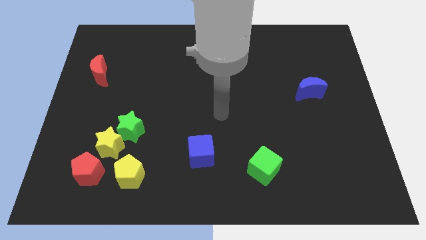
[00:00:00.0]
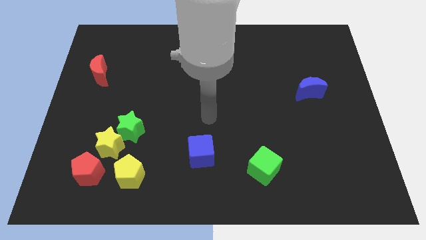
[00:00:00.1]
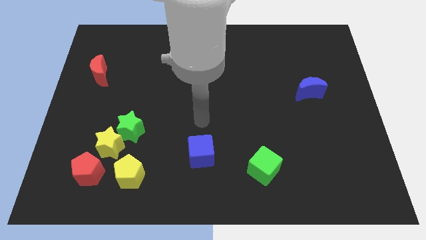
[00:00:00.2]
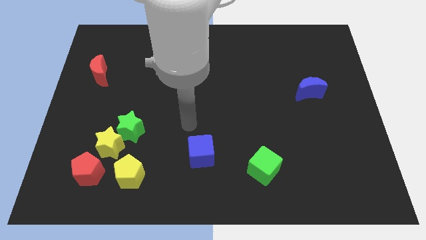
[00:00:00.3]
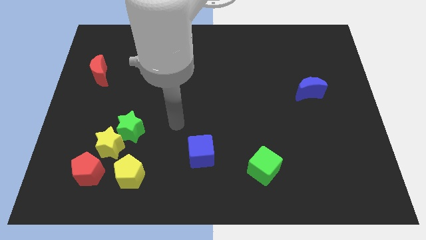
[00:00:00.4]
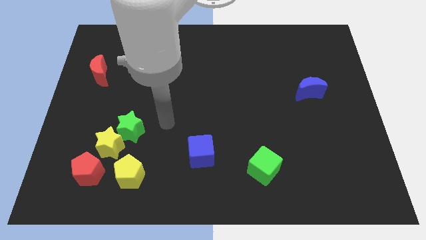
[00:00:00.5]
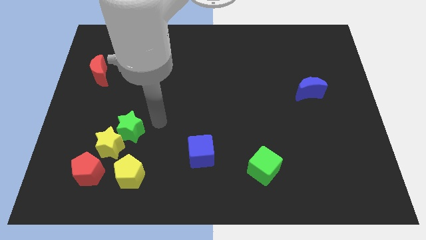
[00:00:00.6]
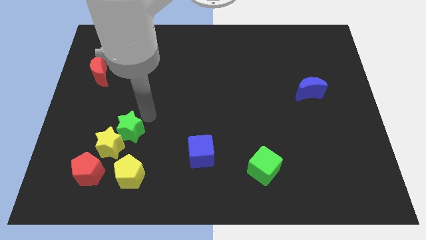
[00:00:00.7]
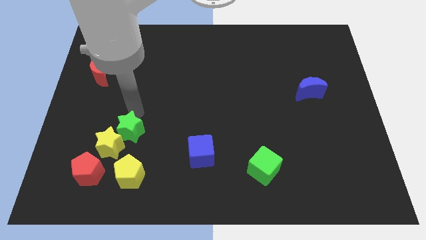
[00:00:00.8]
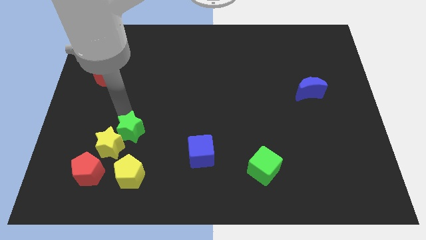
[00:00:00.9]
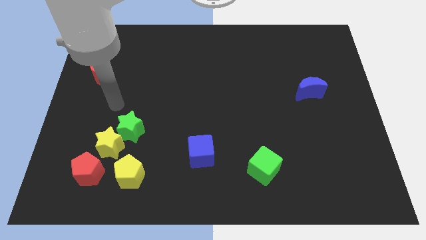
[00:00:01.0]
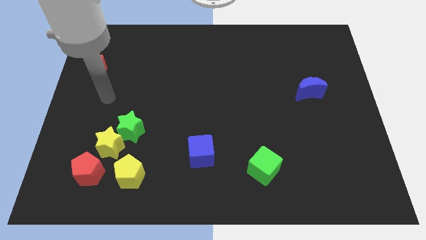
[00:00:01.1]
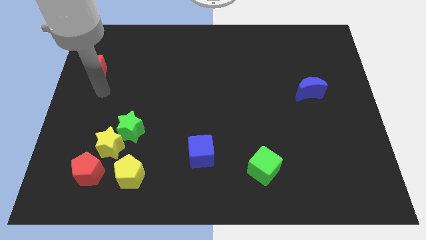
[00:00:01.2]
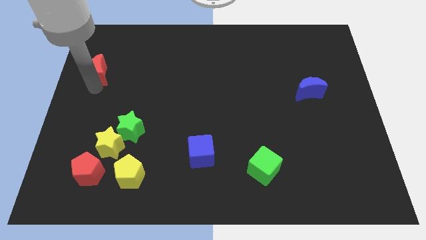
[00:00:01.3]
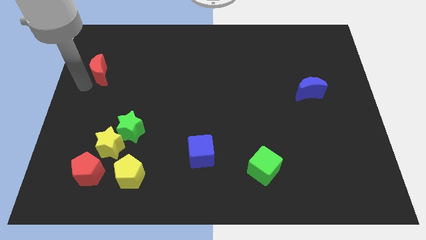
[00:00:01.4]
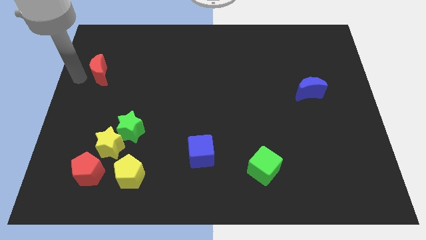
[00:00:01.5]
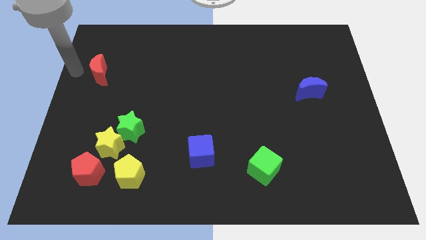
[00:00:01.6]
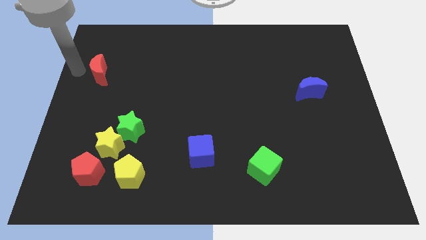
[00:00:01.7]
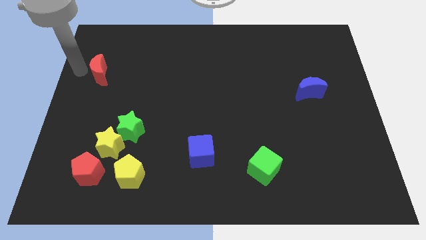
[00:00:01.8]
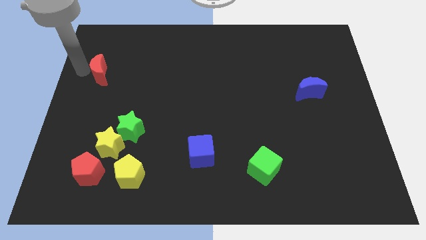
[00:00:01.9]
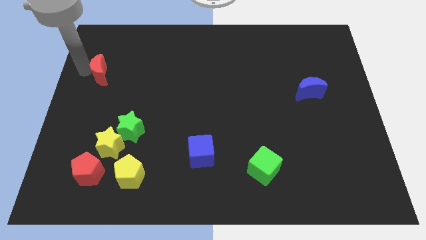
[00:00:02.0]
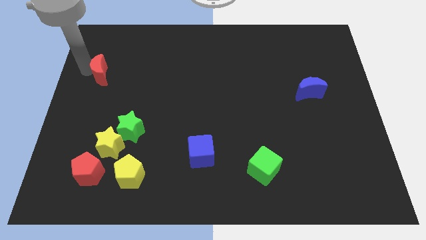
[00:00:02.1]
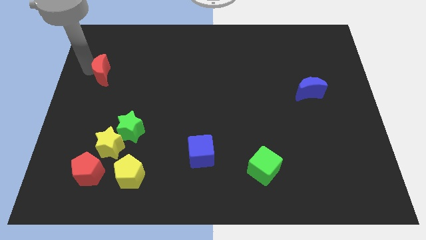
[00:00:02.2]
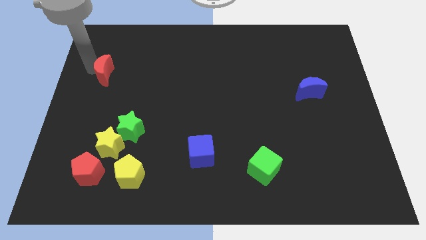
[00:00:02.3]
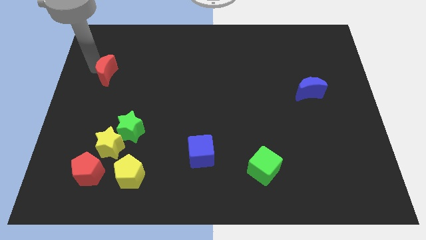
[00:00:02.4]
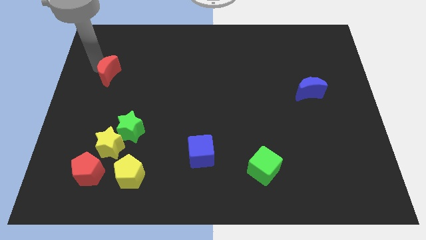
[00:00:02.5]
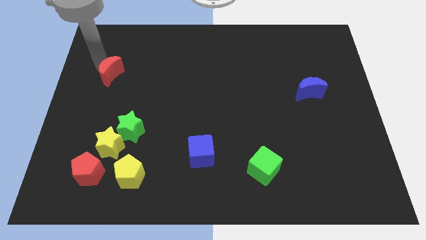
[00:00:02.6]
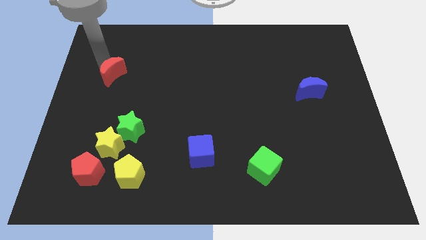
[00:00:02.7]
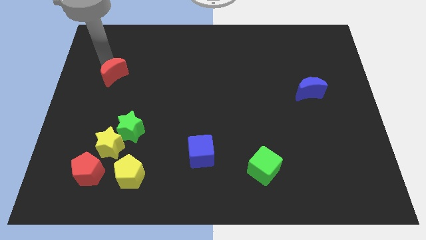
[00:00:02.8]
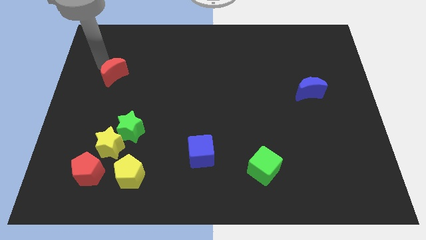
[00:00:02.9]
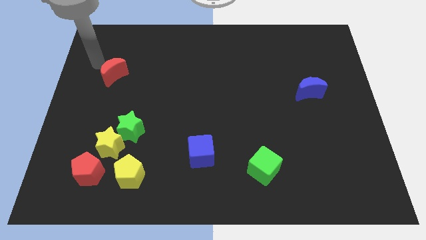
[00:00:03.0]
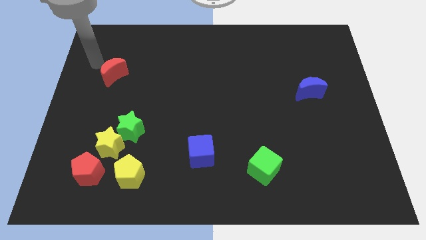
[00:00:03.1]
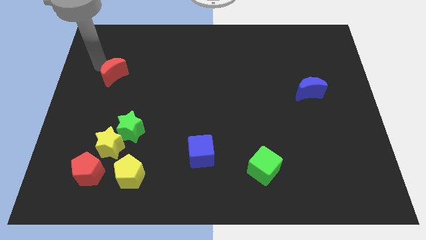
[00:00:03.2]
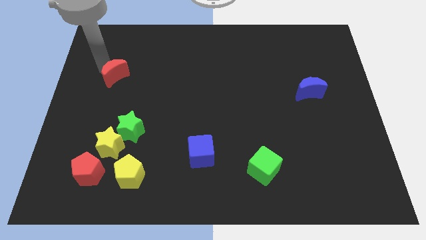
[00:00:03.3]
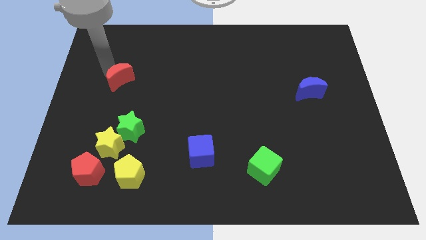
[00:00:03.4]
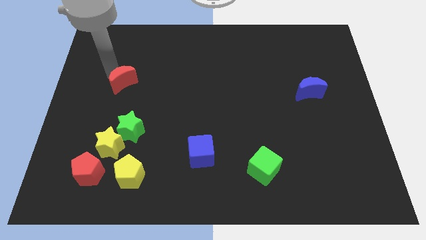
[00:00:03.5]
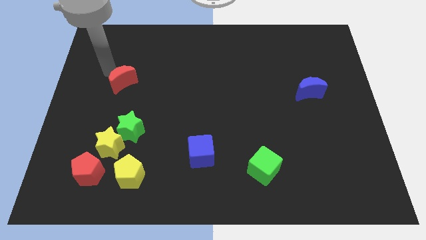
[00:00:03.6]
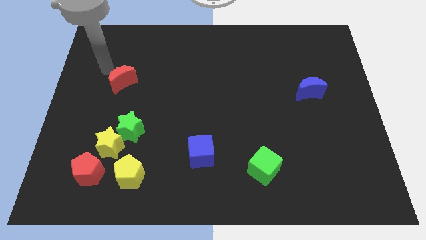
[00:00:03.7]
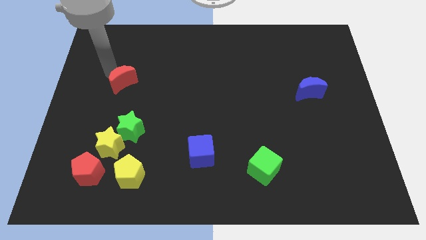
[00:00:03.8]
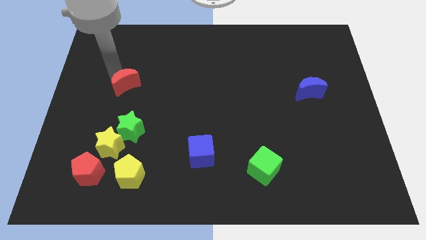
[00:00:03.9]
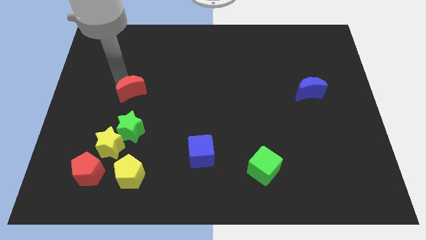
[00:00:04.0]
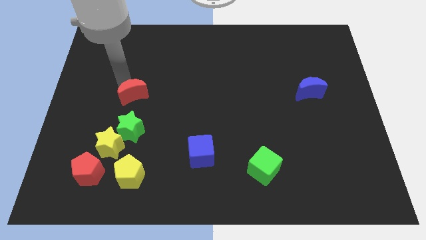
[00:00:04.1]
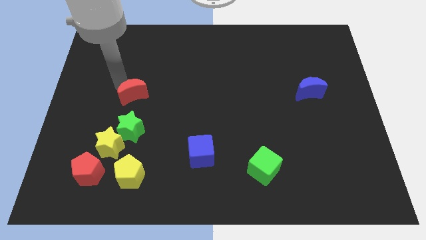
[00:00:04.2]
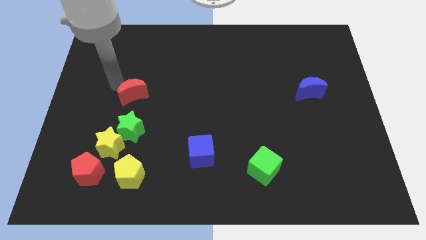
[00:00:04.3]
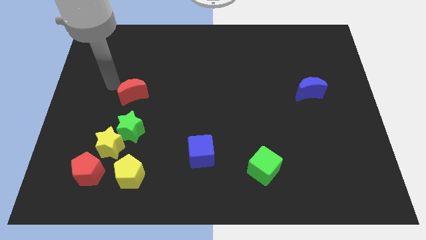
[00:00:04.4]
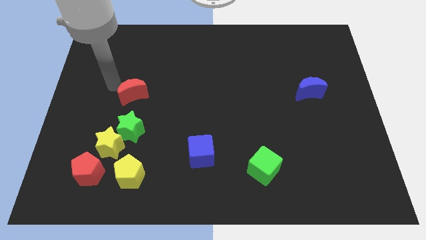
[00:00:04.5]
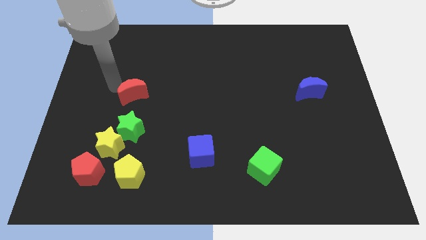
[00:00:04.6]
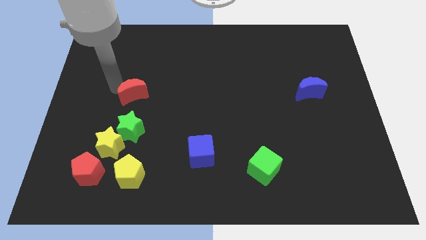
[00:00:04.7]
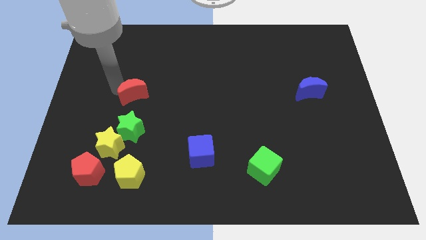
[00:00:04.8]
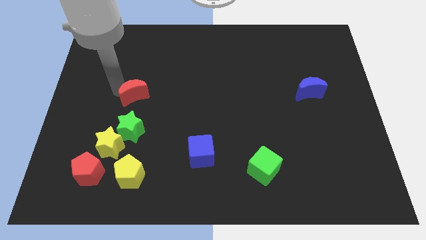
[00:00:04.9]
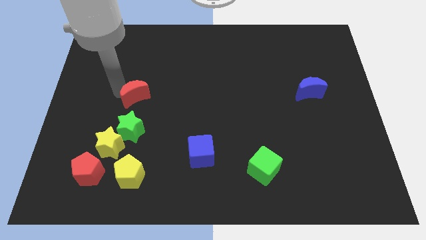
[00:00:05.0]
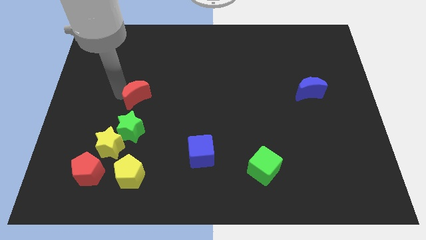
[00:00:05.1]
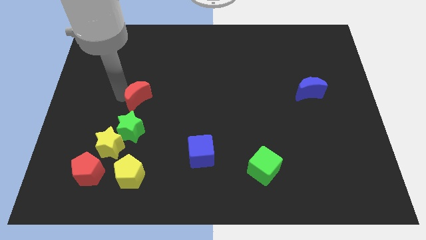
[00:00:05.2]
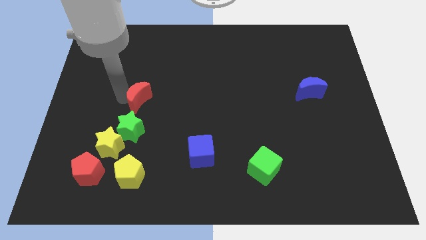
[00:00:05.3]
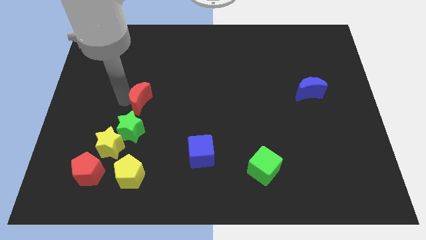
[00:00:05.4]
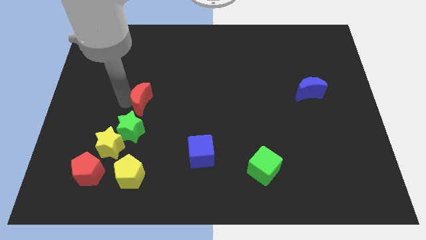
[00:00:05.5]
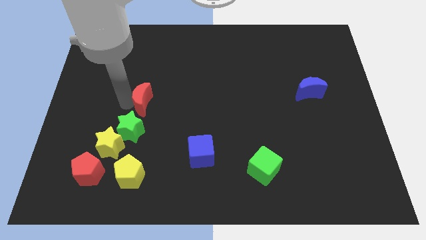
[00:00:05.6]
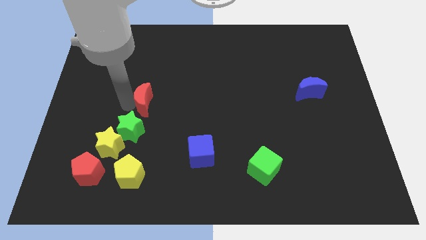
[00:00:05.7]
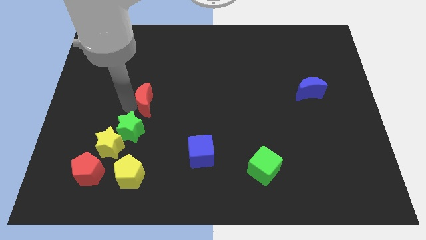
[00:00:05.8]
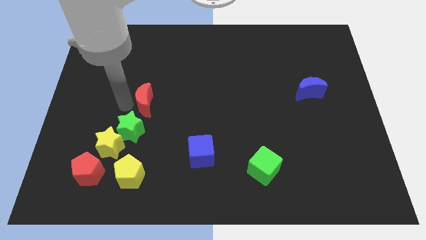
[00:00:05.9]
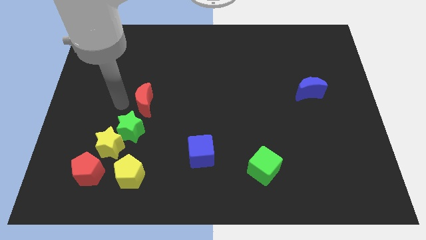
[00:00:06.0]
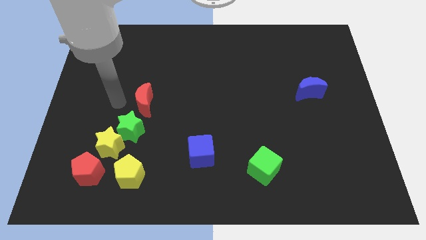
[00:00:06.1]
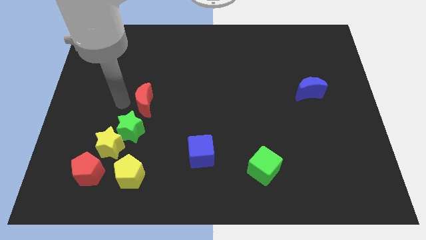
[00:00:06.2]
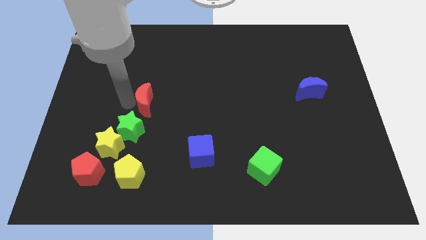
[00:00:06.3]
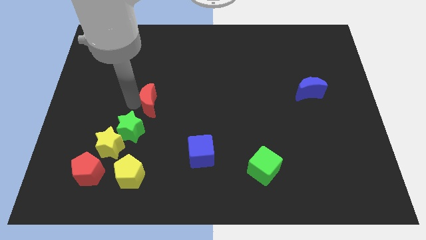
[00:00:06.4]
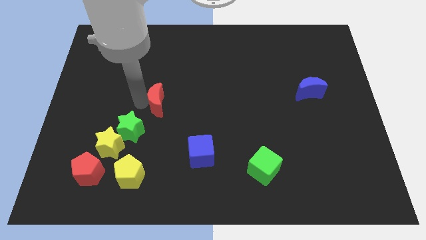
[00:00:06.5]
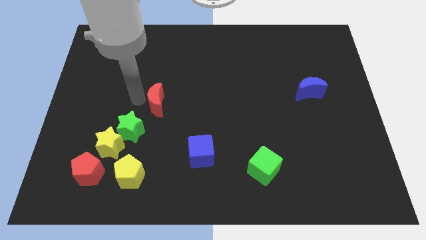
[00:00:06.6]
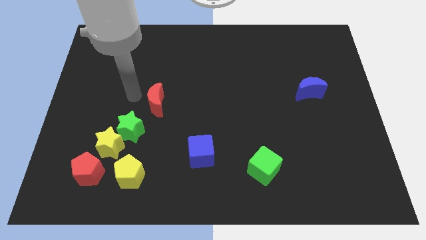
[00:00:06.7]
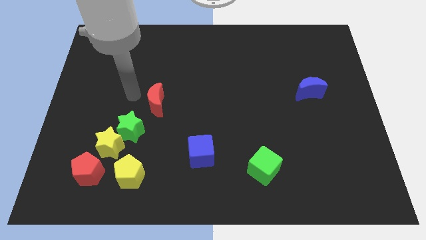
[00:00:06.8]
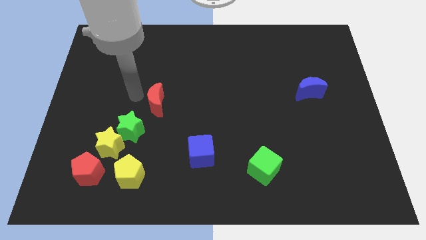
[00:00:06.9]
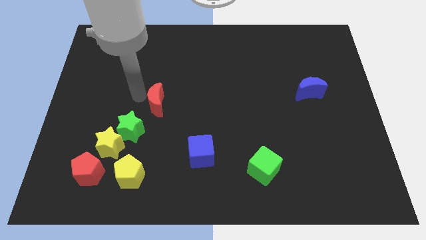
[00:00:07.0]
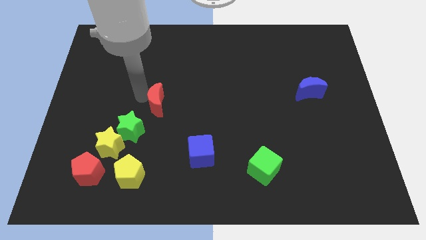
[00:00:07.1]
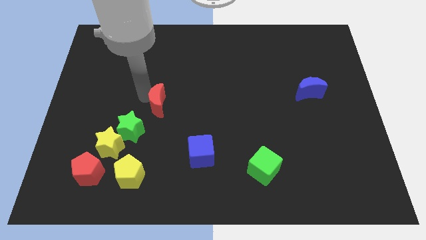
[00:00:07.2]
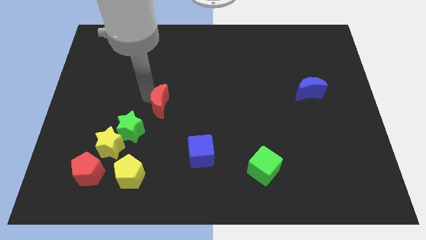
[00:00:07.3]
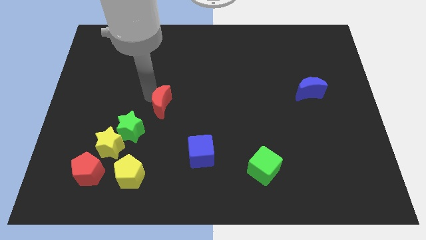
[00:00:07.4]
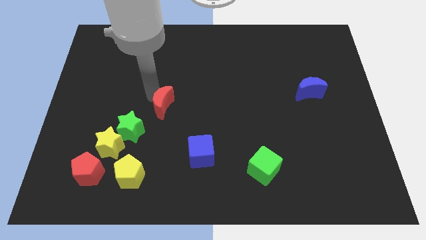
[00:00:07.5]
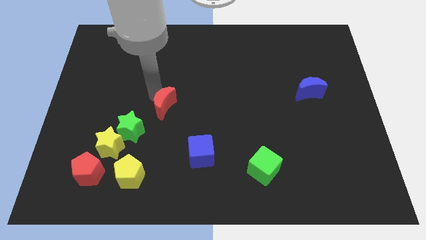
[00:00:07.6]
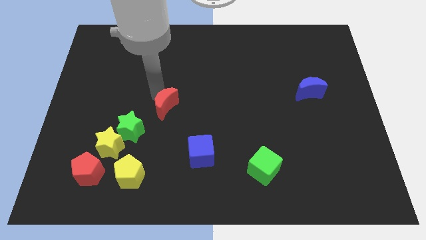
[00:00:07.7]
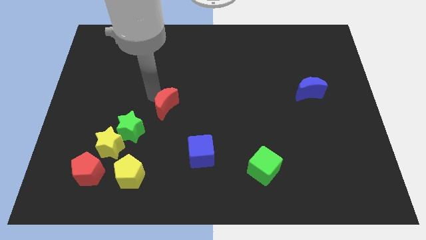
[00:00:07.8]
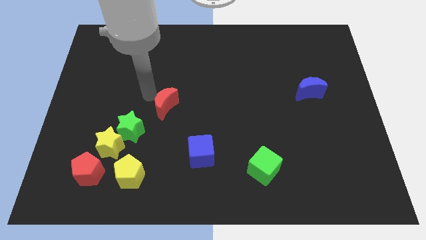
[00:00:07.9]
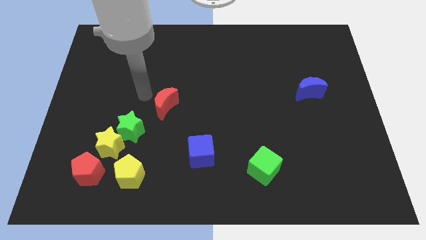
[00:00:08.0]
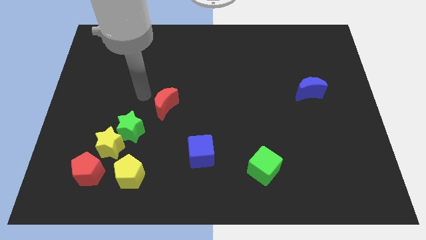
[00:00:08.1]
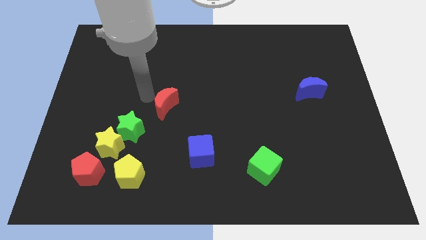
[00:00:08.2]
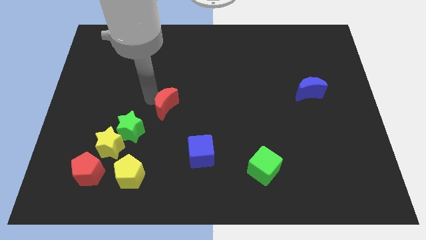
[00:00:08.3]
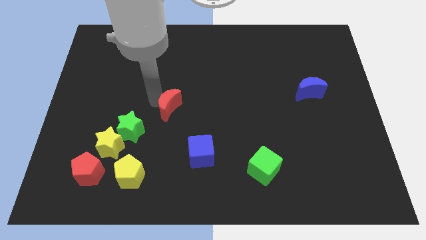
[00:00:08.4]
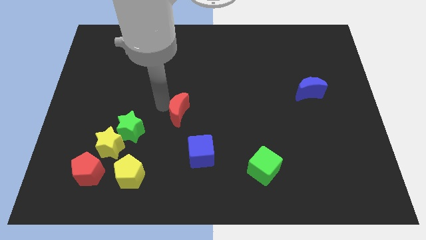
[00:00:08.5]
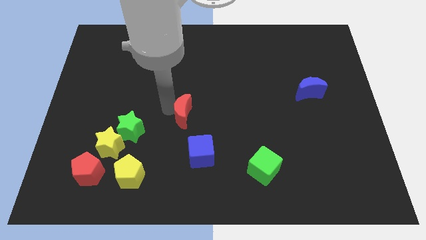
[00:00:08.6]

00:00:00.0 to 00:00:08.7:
slide the red moon to the top of the blue cube
